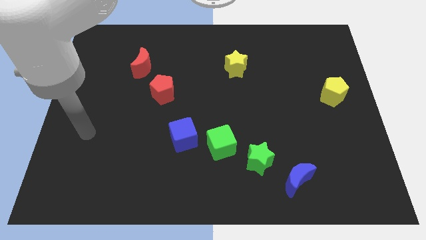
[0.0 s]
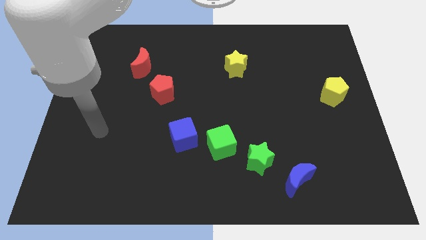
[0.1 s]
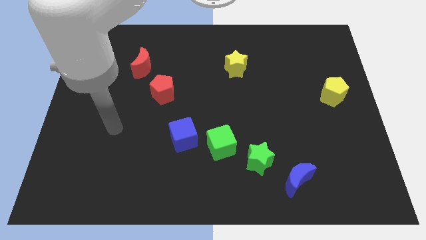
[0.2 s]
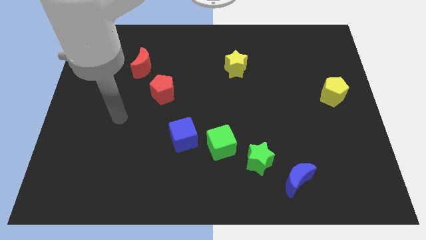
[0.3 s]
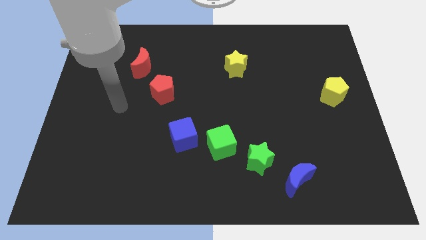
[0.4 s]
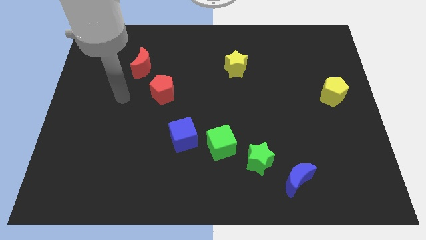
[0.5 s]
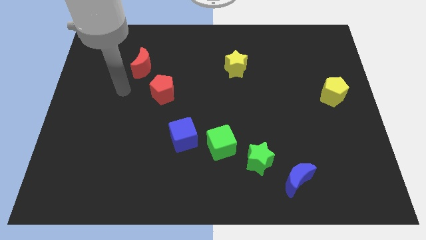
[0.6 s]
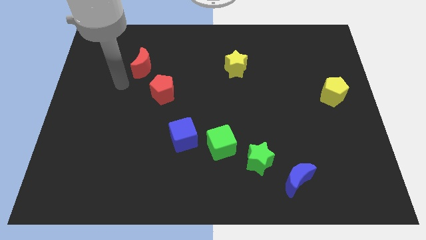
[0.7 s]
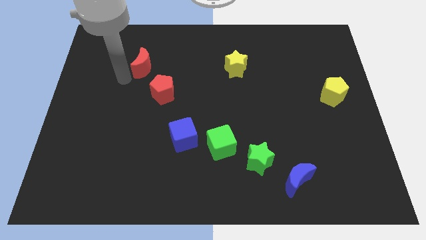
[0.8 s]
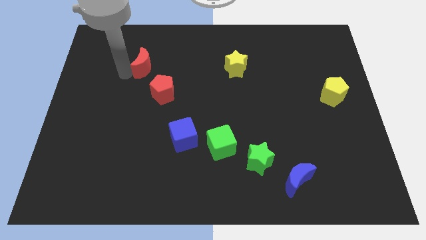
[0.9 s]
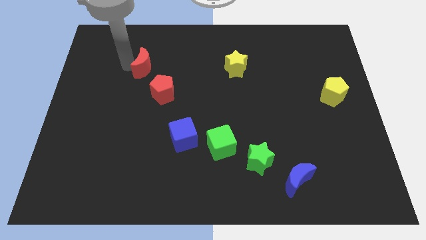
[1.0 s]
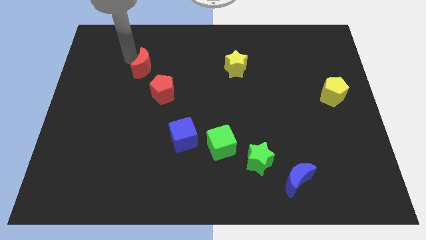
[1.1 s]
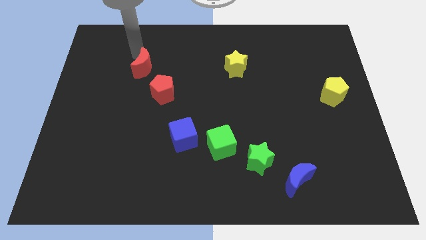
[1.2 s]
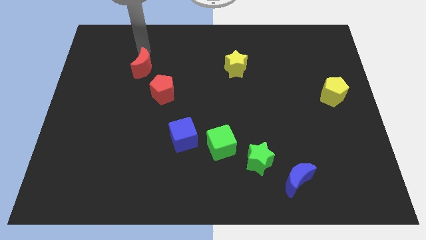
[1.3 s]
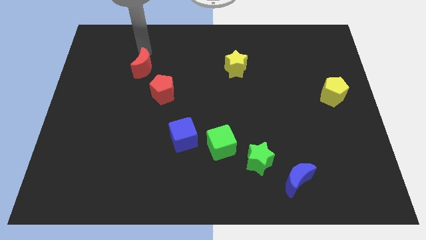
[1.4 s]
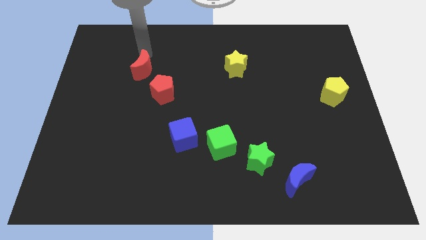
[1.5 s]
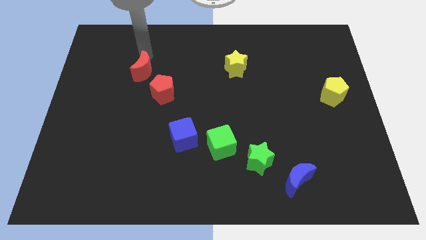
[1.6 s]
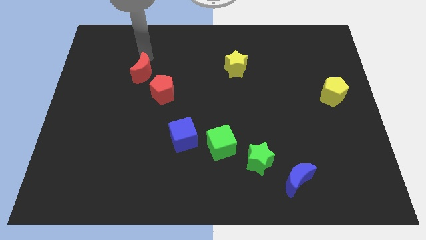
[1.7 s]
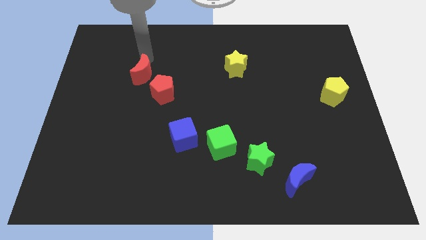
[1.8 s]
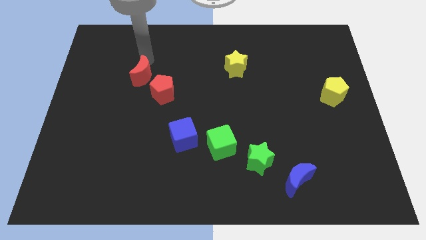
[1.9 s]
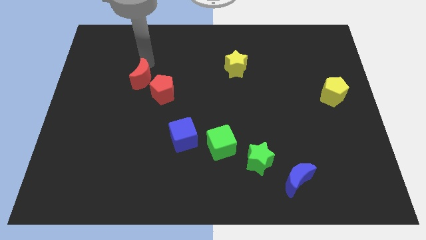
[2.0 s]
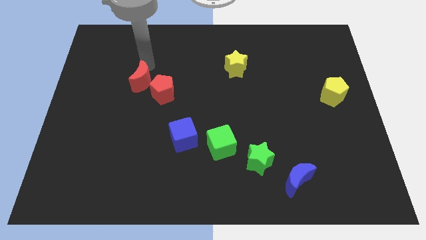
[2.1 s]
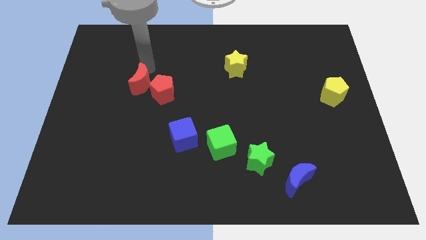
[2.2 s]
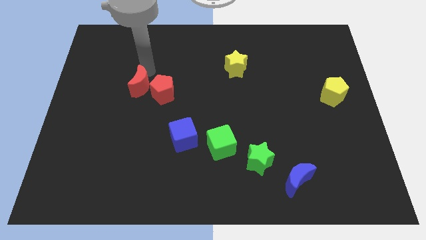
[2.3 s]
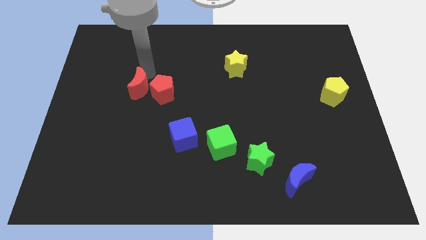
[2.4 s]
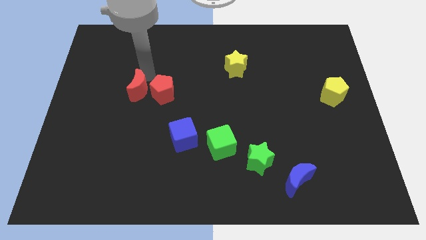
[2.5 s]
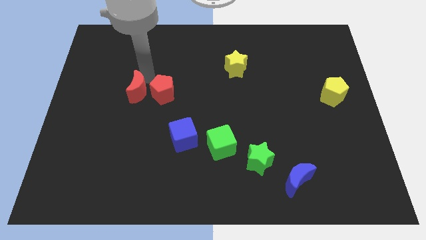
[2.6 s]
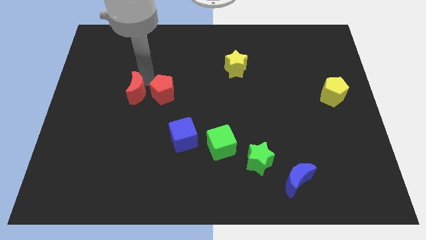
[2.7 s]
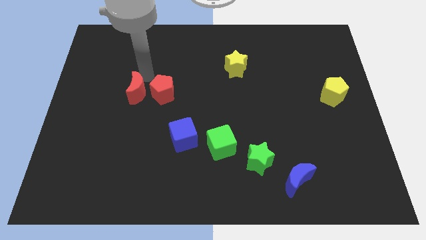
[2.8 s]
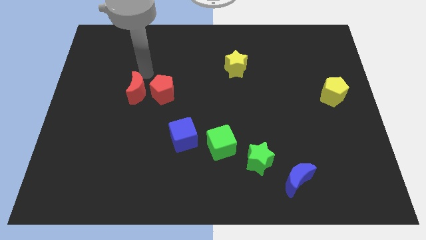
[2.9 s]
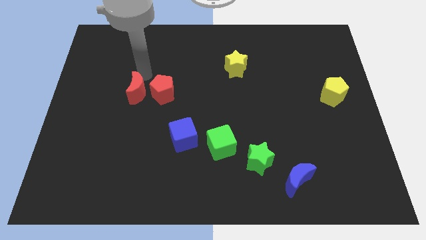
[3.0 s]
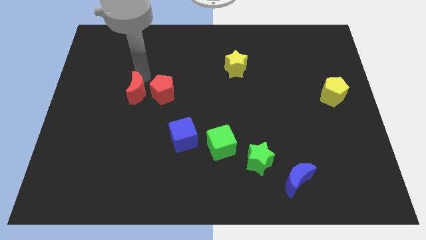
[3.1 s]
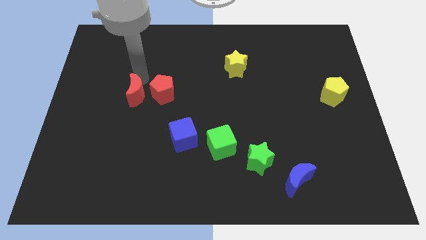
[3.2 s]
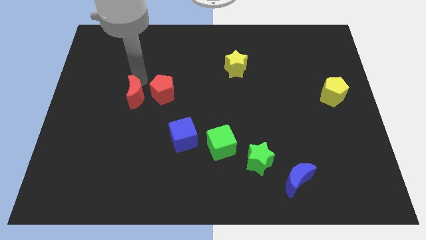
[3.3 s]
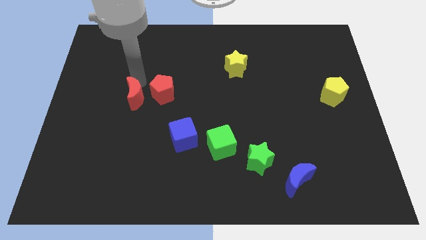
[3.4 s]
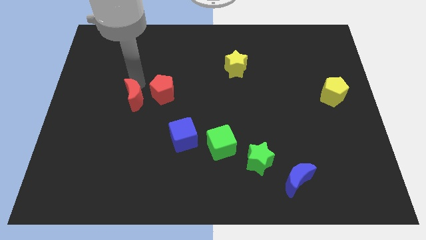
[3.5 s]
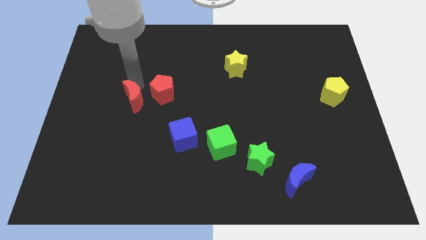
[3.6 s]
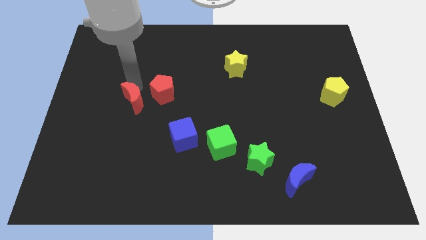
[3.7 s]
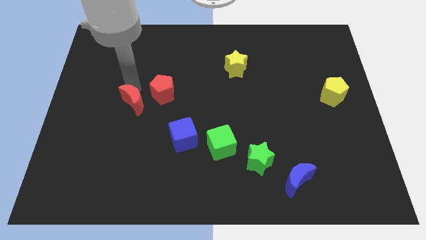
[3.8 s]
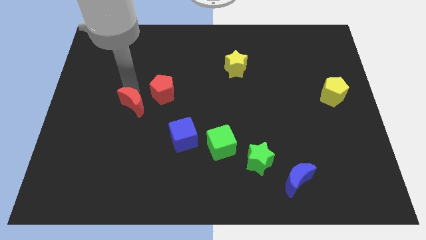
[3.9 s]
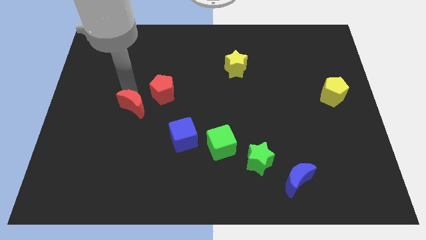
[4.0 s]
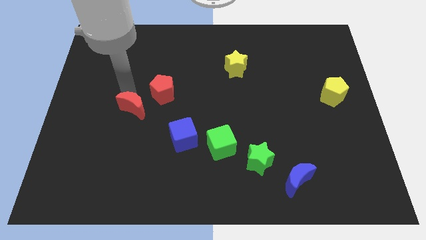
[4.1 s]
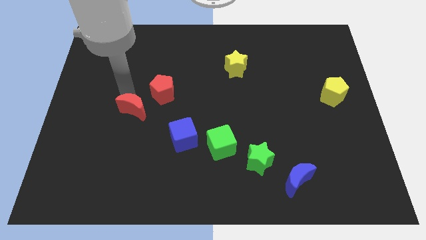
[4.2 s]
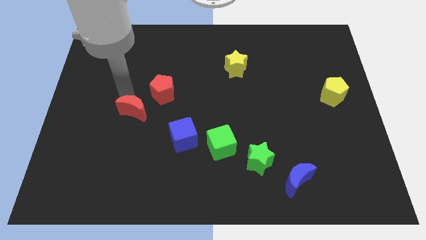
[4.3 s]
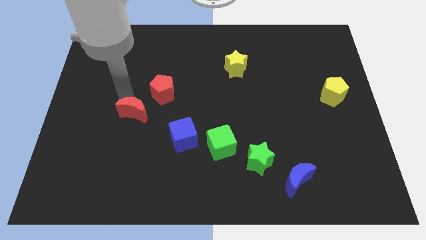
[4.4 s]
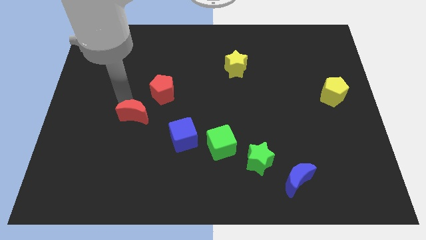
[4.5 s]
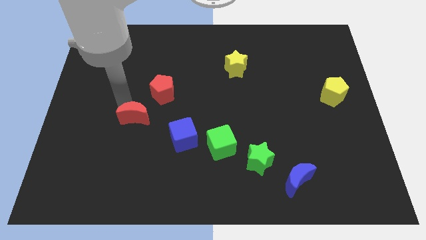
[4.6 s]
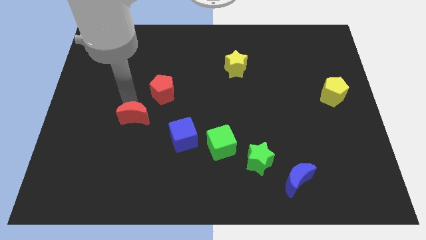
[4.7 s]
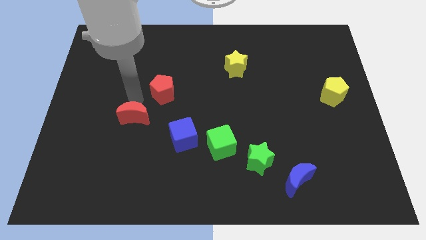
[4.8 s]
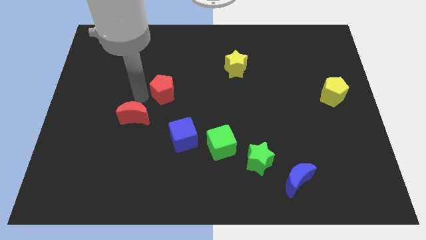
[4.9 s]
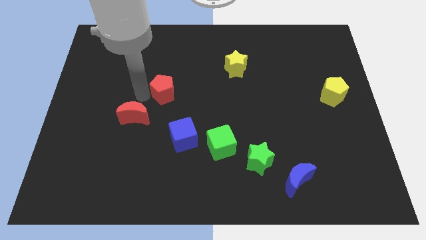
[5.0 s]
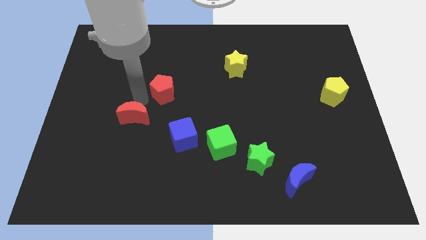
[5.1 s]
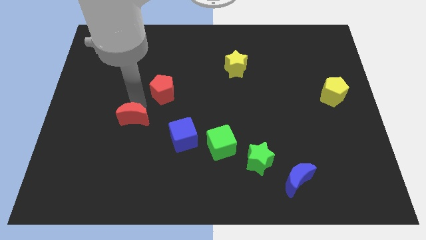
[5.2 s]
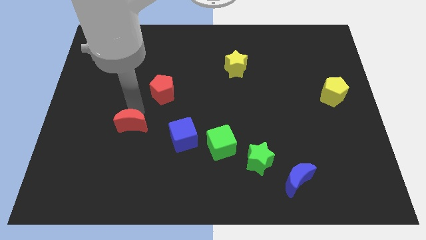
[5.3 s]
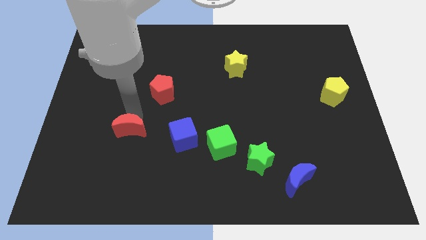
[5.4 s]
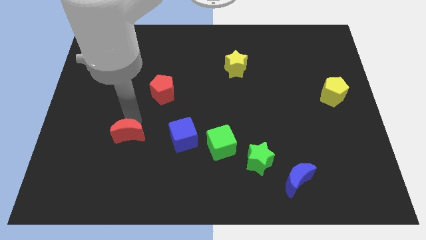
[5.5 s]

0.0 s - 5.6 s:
move the red moon down

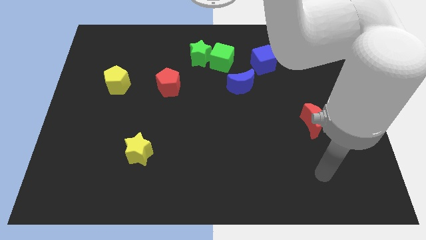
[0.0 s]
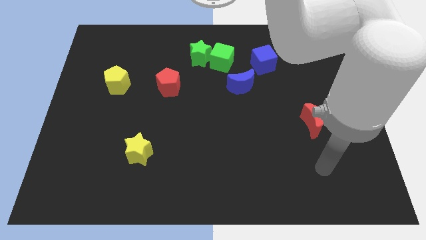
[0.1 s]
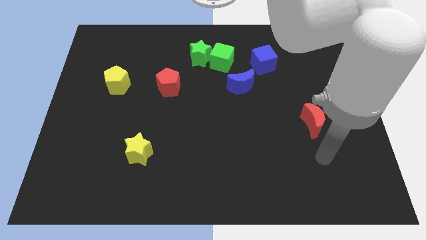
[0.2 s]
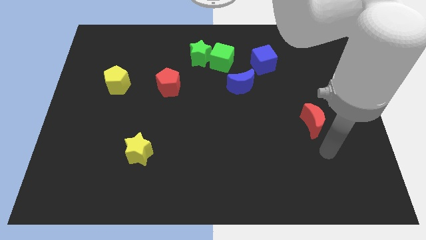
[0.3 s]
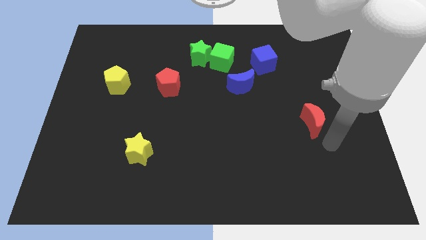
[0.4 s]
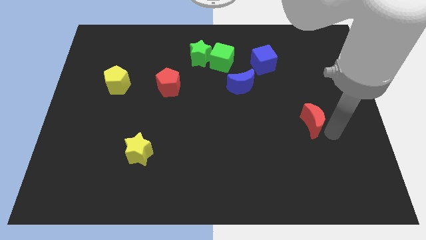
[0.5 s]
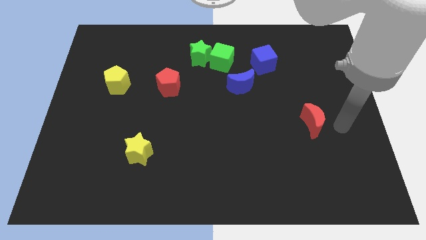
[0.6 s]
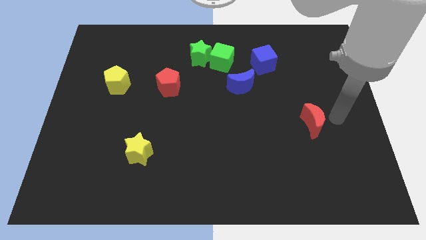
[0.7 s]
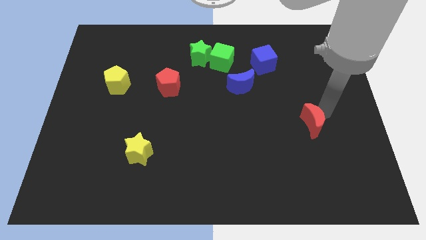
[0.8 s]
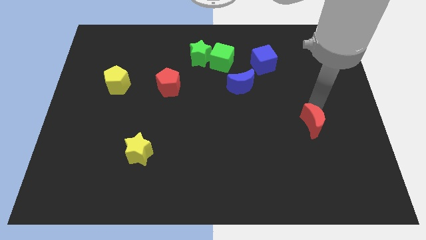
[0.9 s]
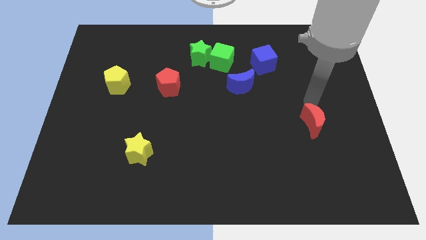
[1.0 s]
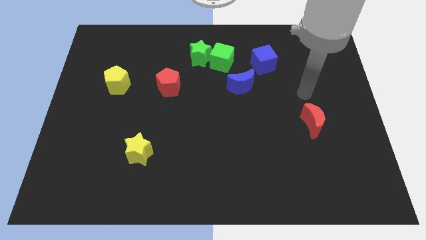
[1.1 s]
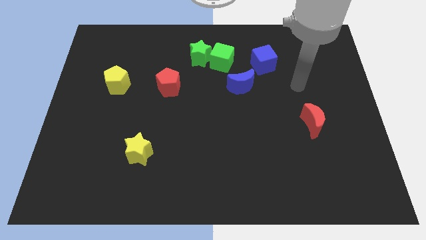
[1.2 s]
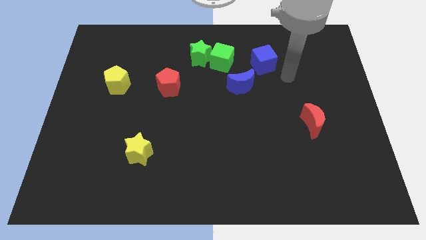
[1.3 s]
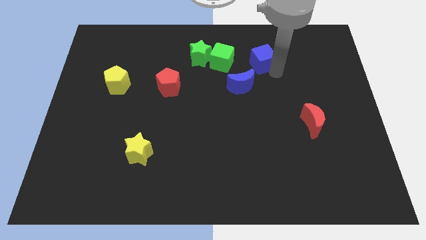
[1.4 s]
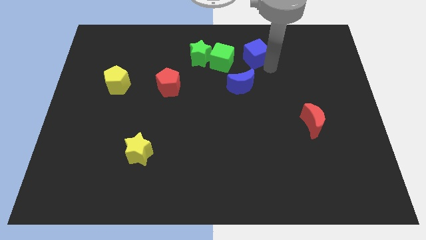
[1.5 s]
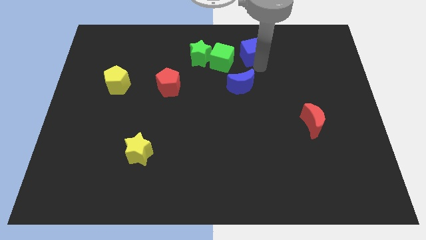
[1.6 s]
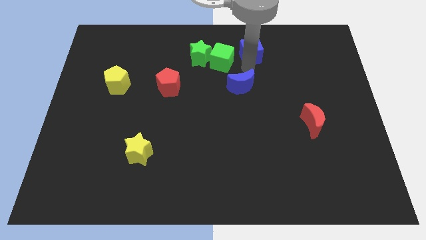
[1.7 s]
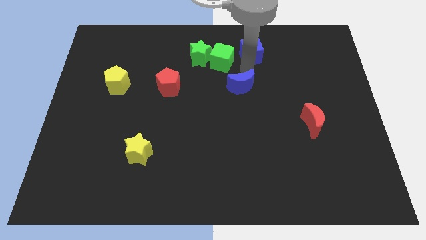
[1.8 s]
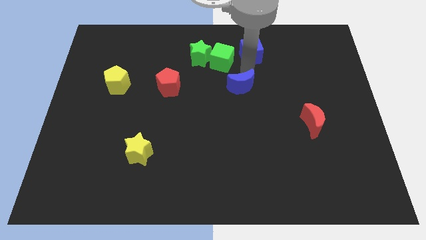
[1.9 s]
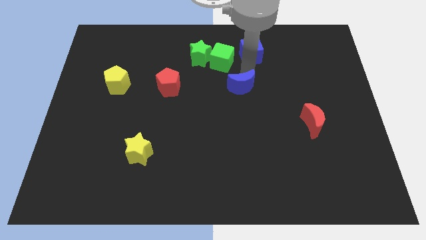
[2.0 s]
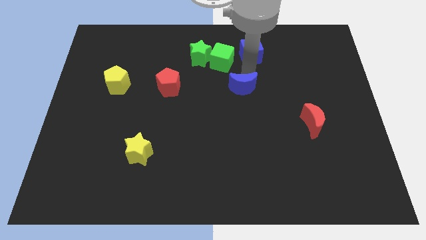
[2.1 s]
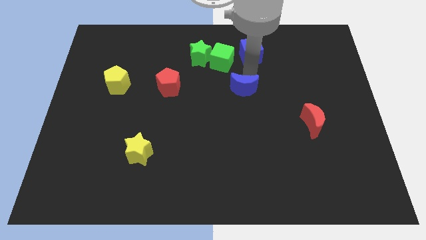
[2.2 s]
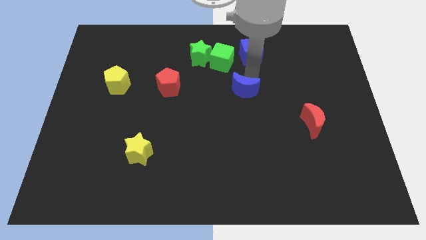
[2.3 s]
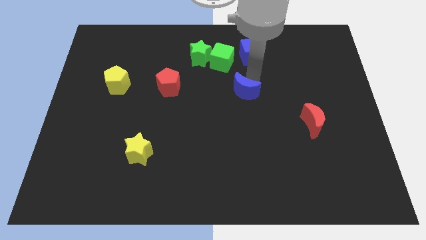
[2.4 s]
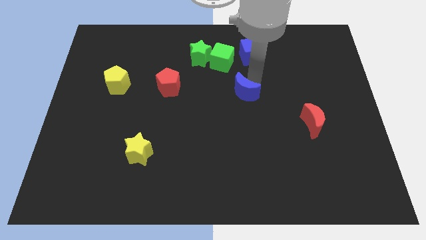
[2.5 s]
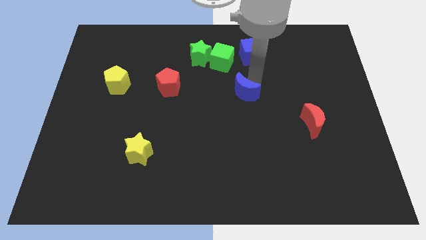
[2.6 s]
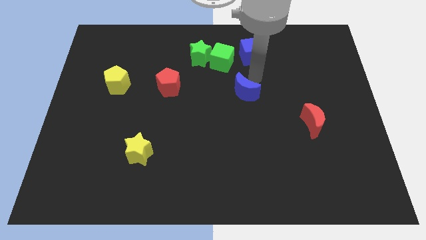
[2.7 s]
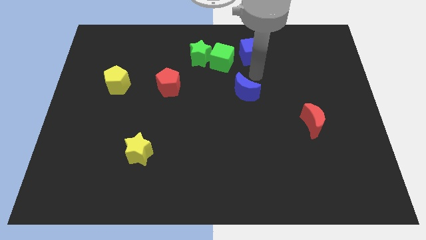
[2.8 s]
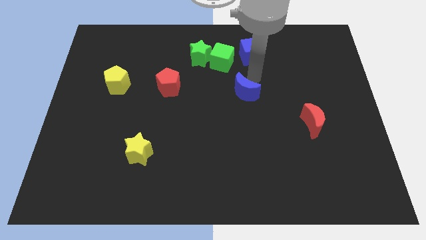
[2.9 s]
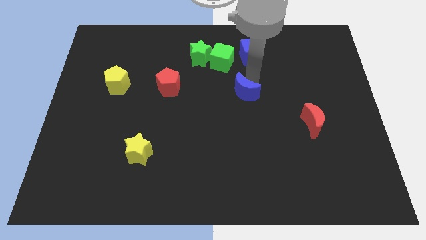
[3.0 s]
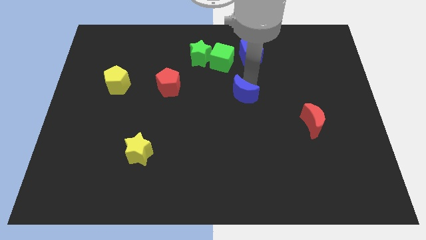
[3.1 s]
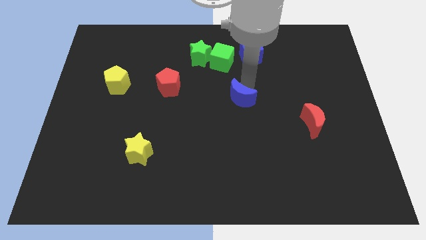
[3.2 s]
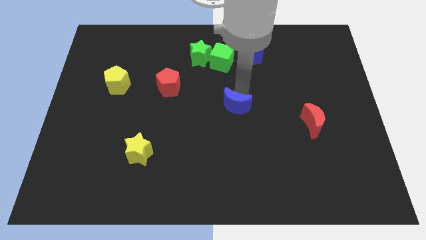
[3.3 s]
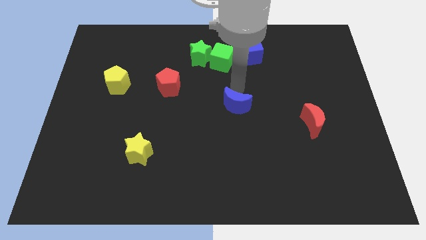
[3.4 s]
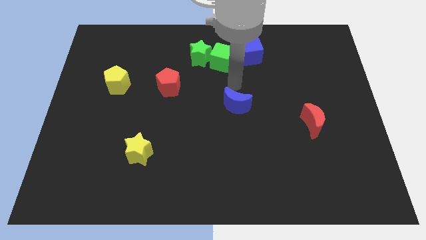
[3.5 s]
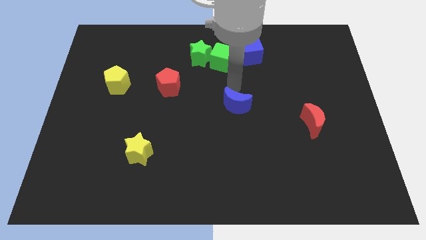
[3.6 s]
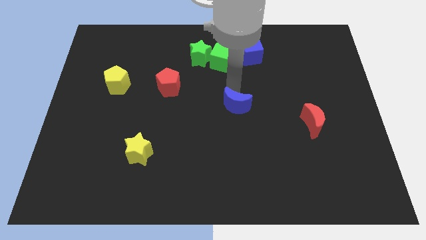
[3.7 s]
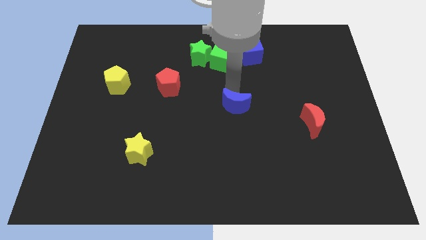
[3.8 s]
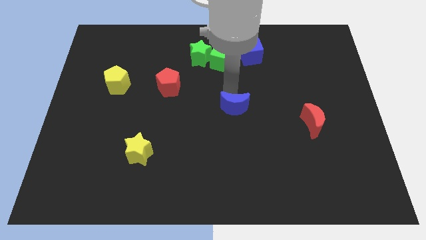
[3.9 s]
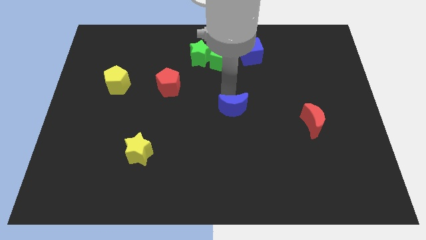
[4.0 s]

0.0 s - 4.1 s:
slightly slide the blue moon downwards
